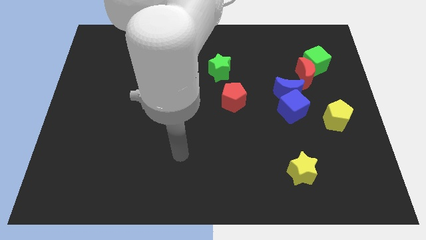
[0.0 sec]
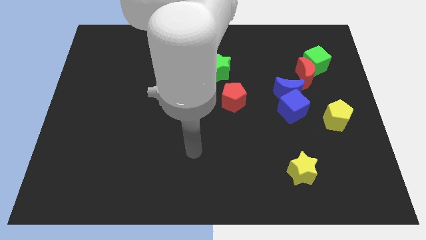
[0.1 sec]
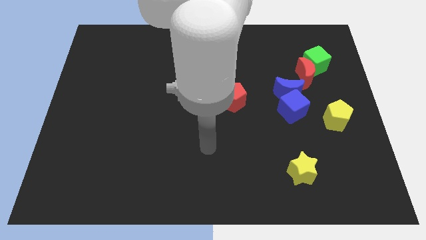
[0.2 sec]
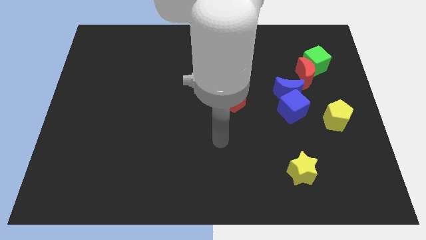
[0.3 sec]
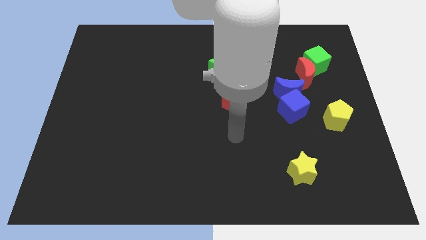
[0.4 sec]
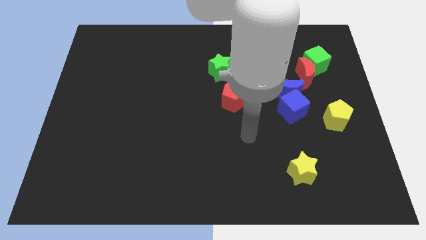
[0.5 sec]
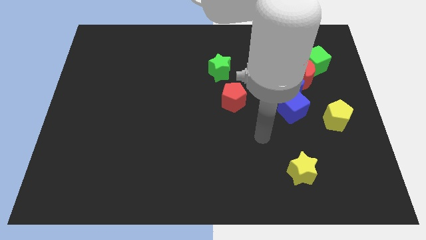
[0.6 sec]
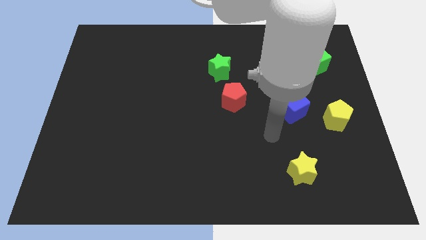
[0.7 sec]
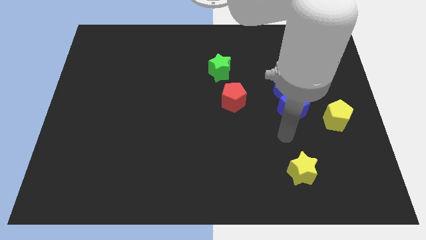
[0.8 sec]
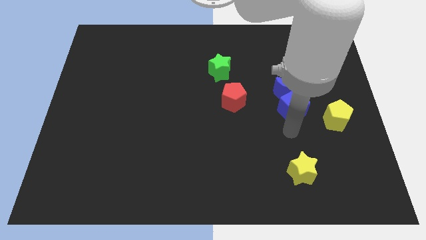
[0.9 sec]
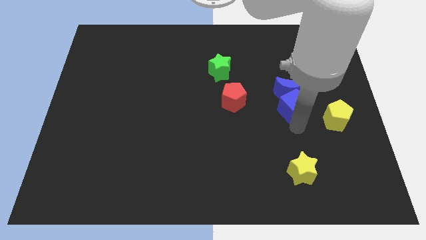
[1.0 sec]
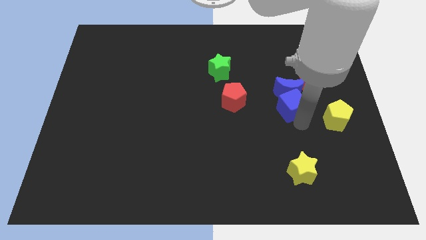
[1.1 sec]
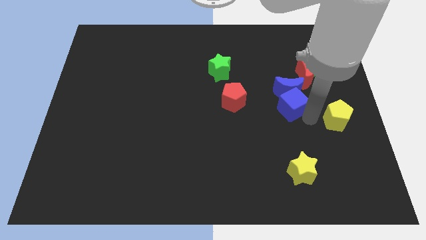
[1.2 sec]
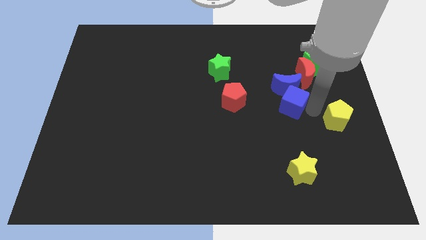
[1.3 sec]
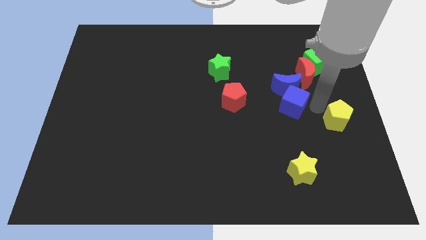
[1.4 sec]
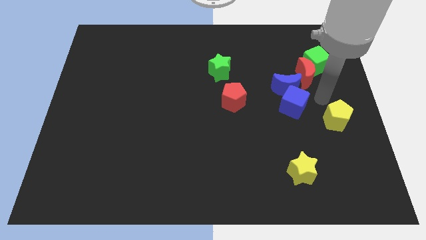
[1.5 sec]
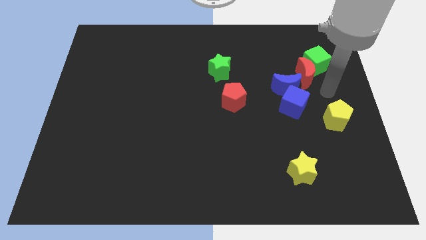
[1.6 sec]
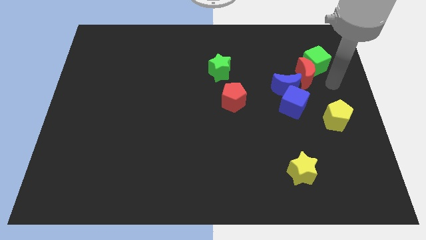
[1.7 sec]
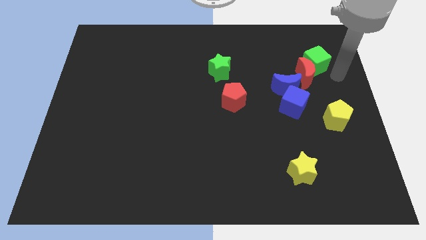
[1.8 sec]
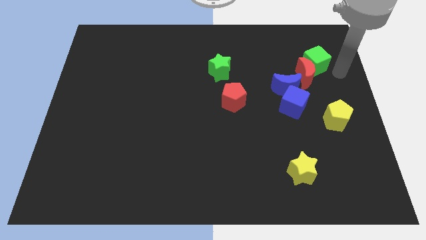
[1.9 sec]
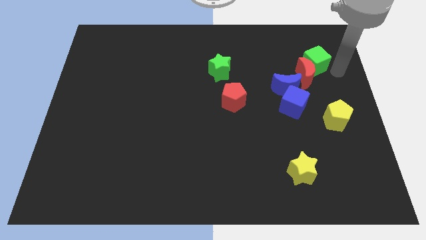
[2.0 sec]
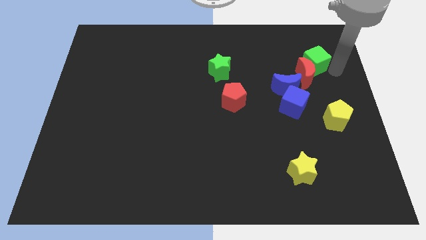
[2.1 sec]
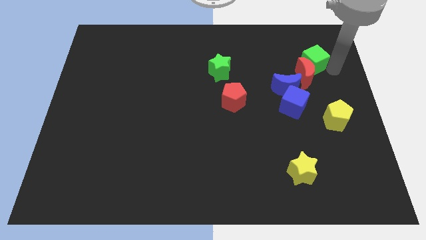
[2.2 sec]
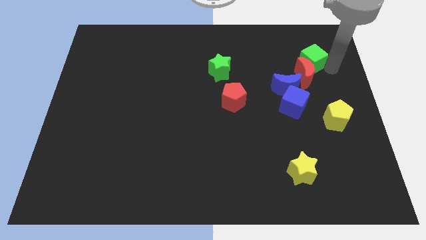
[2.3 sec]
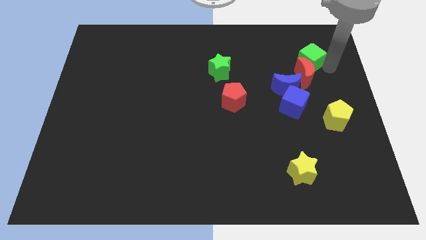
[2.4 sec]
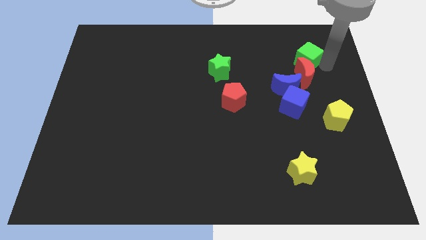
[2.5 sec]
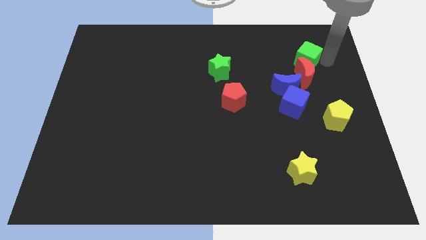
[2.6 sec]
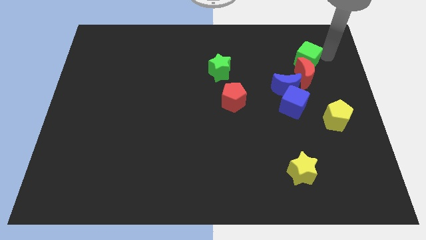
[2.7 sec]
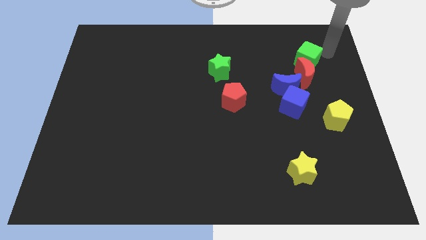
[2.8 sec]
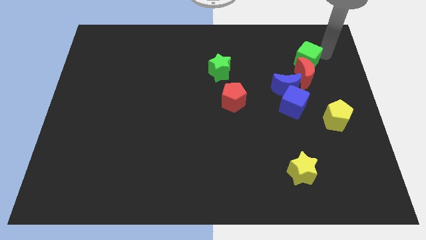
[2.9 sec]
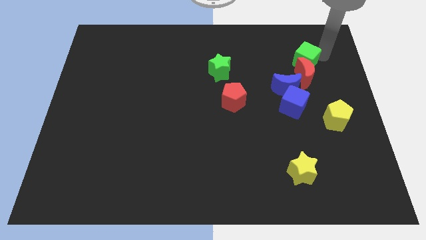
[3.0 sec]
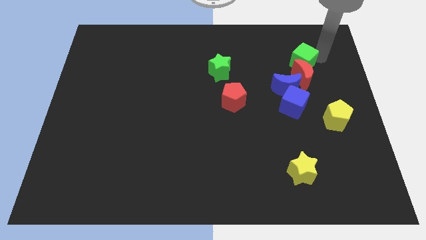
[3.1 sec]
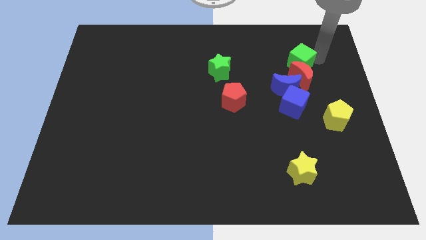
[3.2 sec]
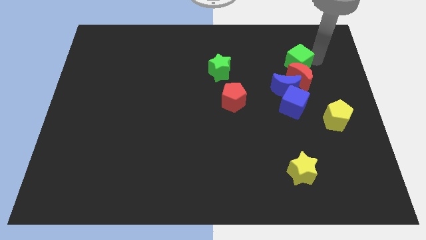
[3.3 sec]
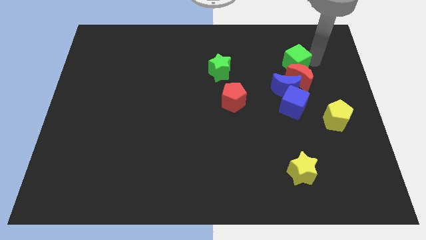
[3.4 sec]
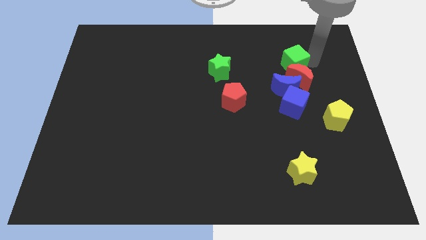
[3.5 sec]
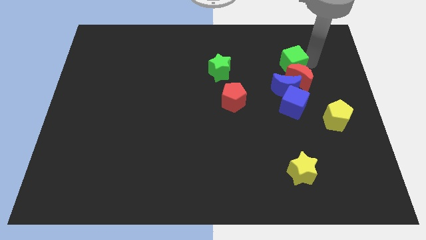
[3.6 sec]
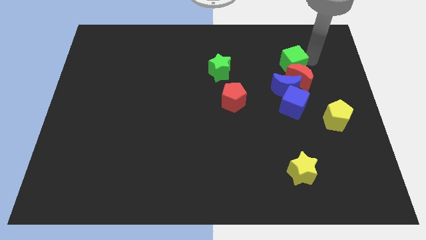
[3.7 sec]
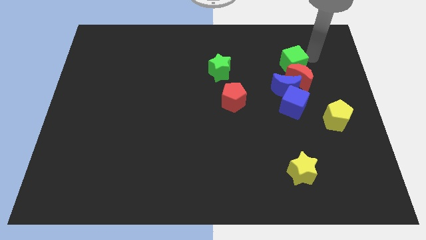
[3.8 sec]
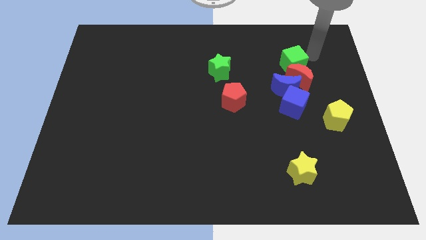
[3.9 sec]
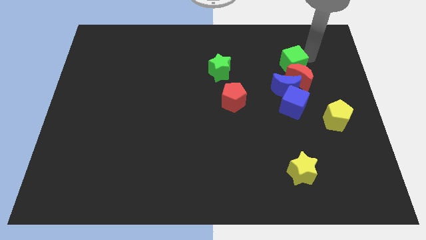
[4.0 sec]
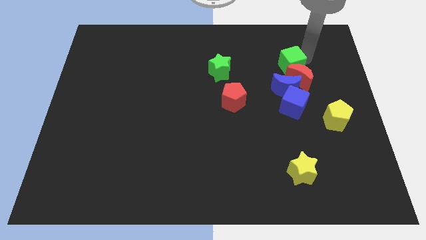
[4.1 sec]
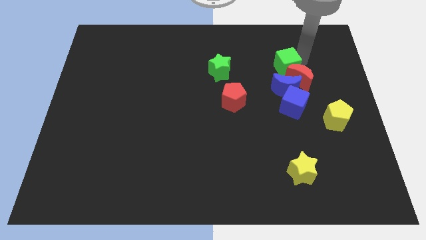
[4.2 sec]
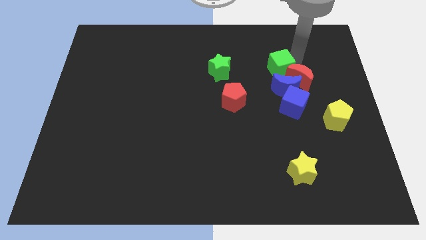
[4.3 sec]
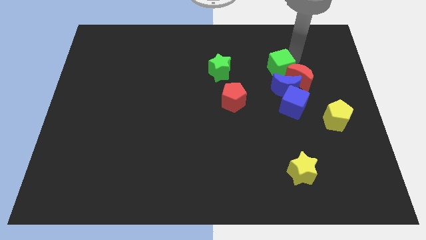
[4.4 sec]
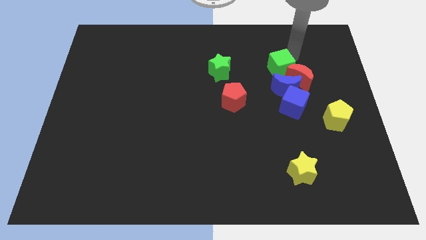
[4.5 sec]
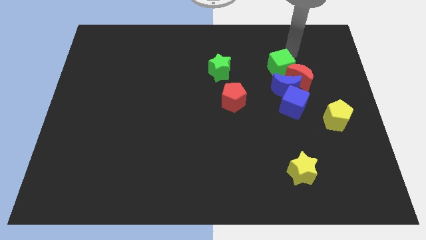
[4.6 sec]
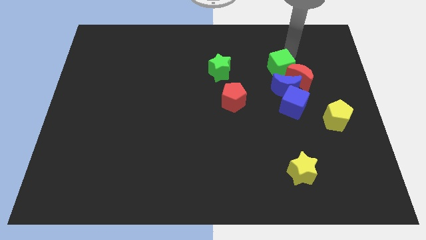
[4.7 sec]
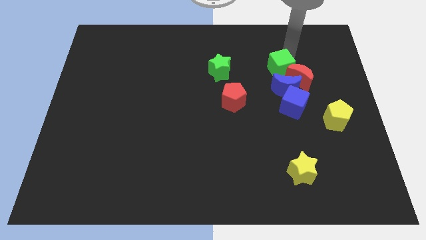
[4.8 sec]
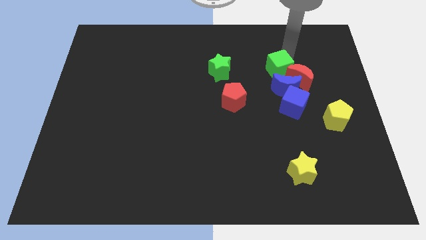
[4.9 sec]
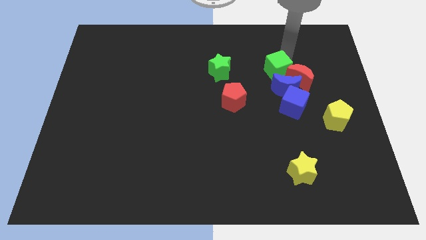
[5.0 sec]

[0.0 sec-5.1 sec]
push the green cube diagonally downwards and to the left a bit

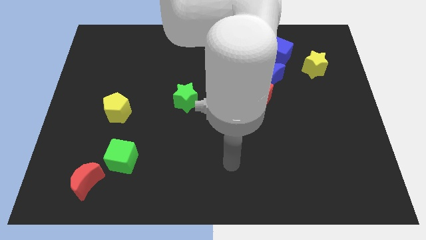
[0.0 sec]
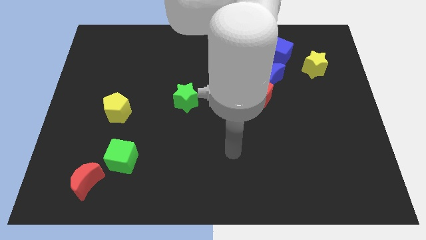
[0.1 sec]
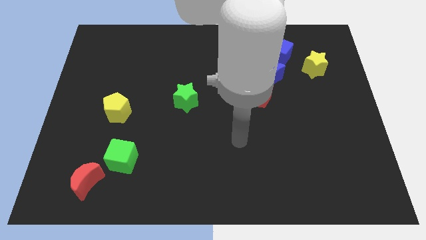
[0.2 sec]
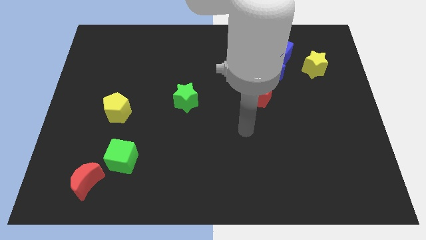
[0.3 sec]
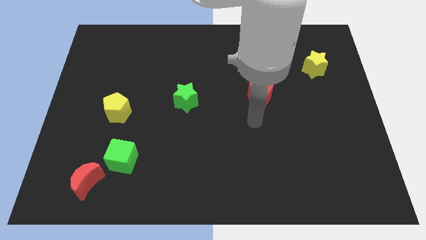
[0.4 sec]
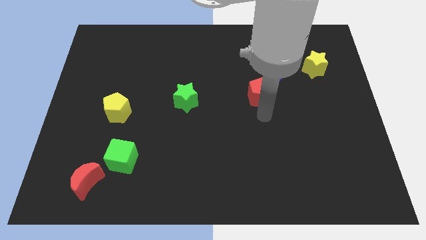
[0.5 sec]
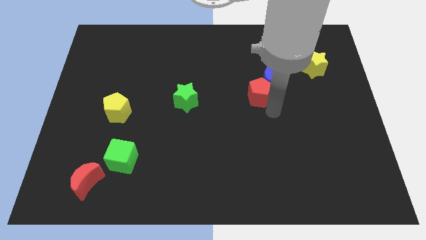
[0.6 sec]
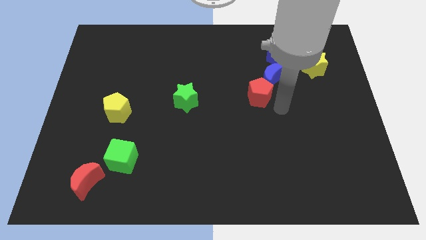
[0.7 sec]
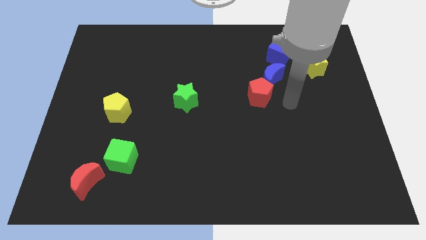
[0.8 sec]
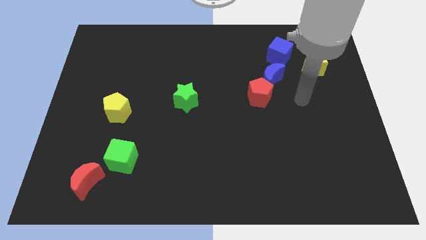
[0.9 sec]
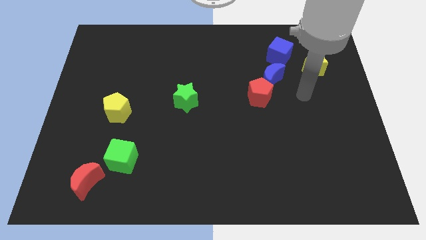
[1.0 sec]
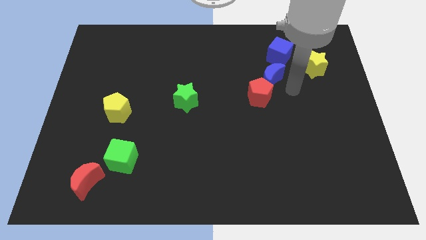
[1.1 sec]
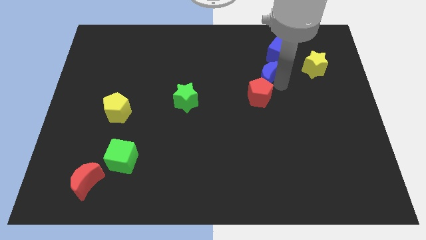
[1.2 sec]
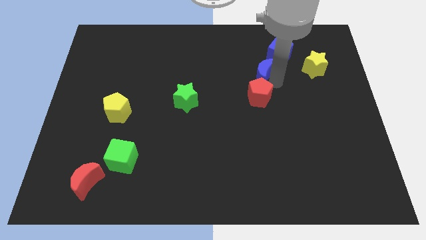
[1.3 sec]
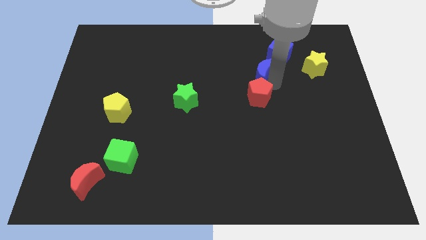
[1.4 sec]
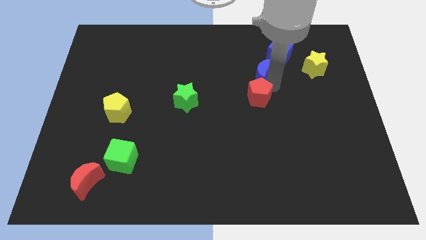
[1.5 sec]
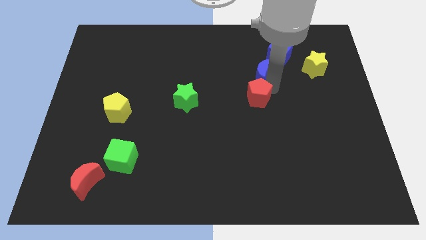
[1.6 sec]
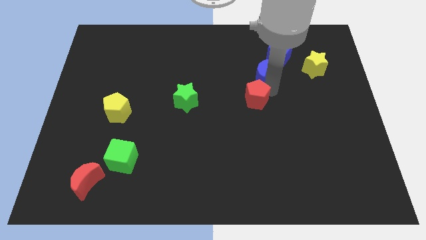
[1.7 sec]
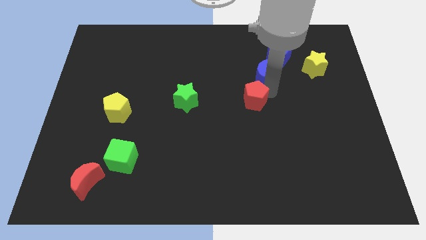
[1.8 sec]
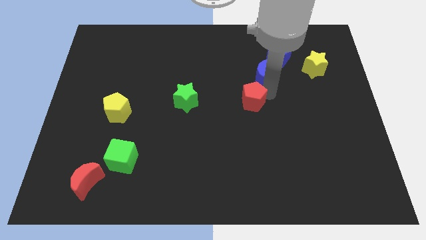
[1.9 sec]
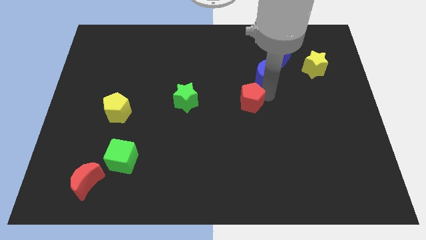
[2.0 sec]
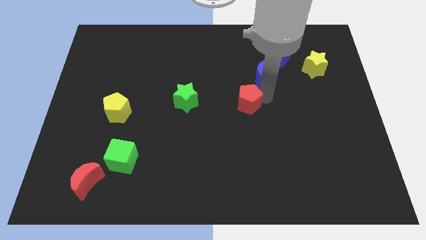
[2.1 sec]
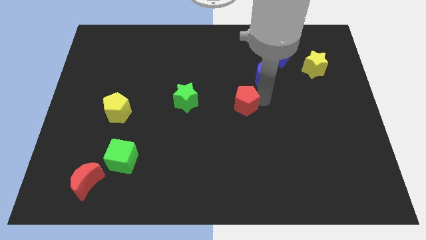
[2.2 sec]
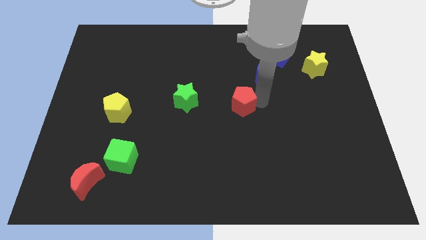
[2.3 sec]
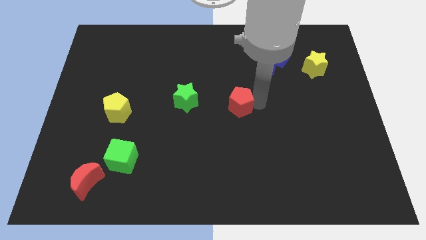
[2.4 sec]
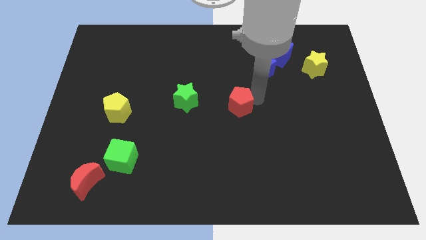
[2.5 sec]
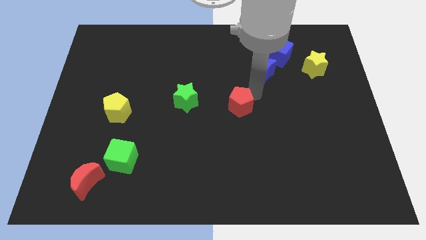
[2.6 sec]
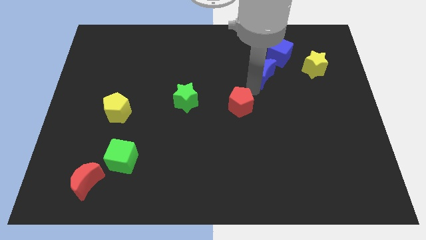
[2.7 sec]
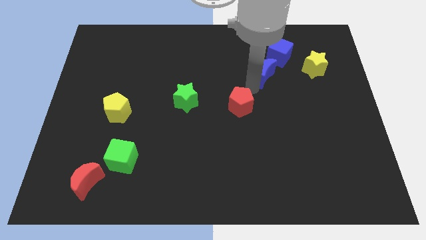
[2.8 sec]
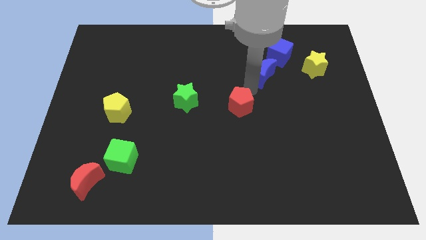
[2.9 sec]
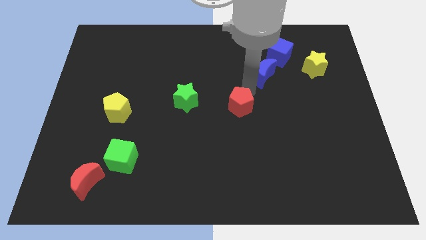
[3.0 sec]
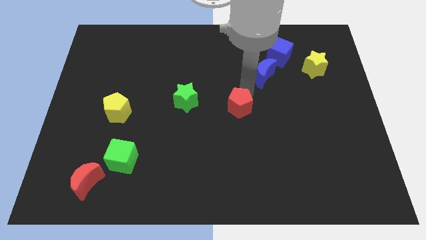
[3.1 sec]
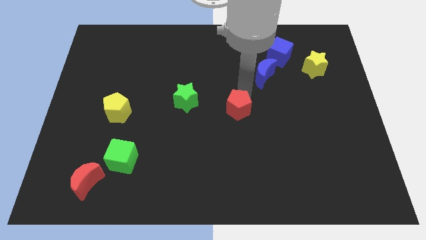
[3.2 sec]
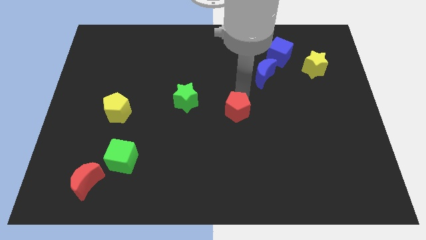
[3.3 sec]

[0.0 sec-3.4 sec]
push the red pentagon slightly diagonally down and to the left
